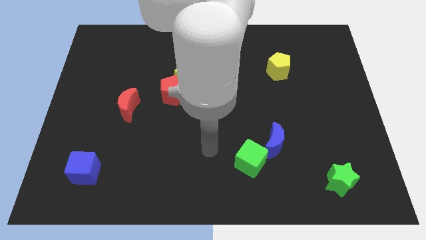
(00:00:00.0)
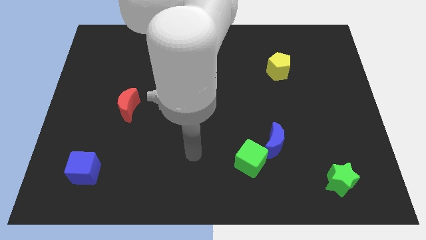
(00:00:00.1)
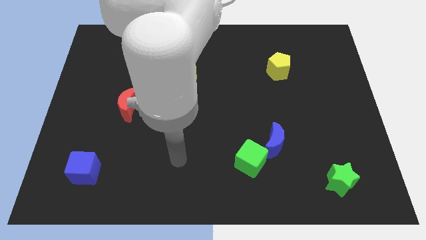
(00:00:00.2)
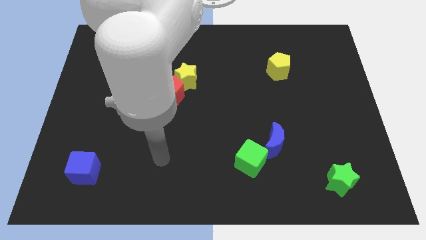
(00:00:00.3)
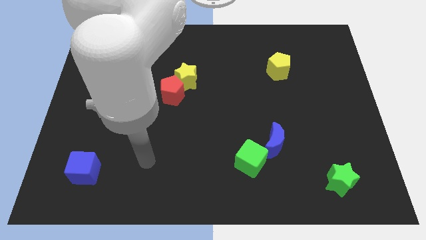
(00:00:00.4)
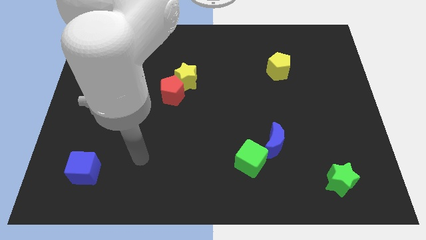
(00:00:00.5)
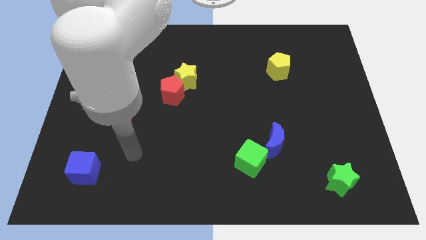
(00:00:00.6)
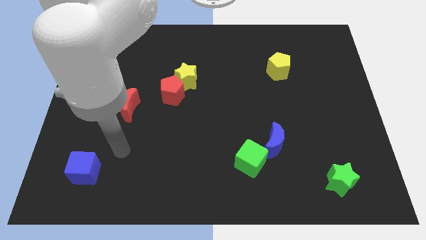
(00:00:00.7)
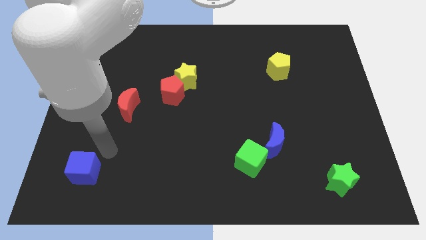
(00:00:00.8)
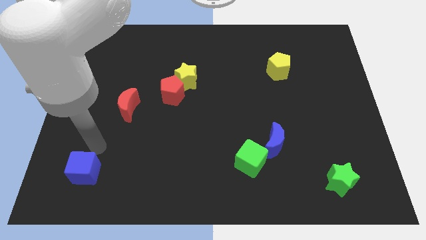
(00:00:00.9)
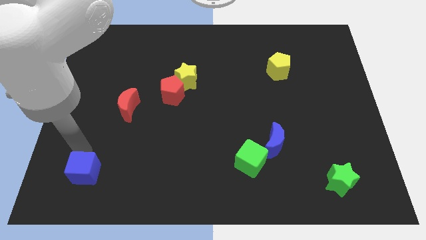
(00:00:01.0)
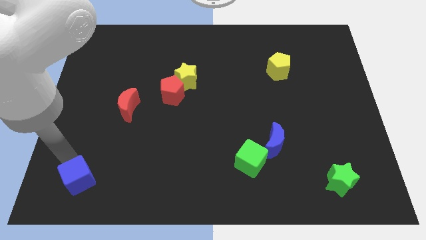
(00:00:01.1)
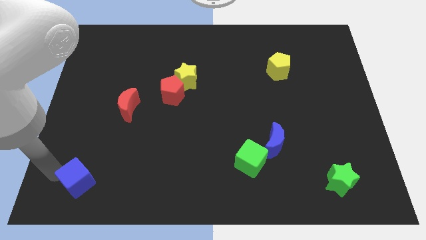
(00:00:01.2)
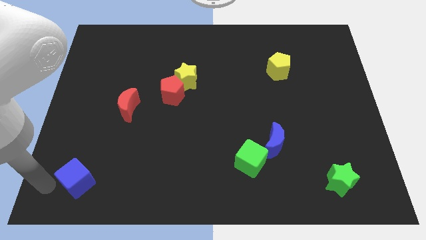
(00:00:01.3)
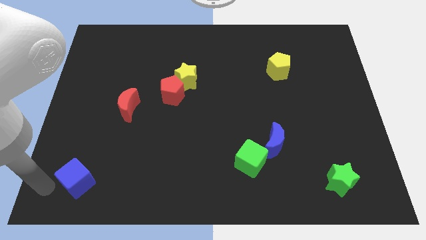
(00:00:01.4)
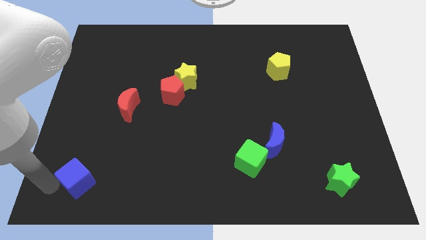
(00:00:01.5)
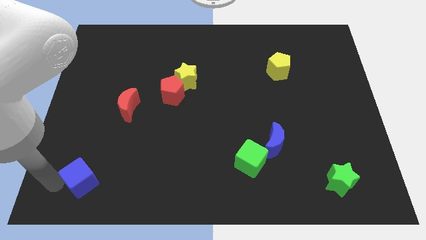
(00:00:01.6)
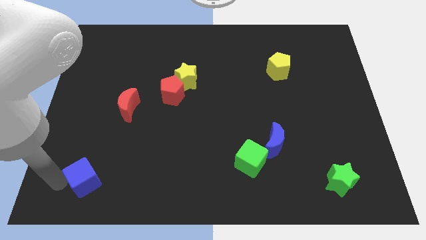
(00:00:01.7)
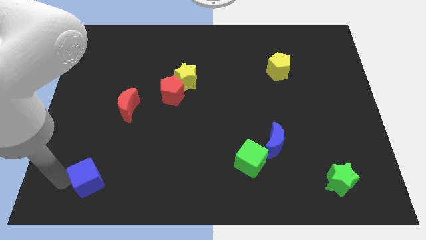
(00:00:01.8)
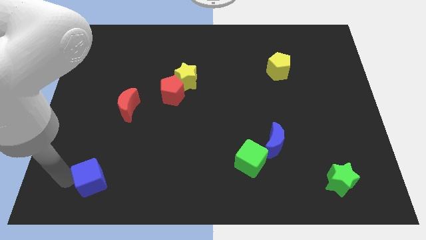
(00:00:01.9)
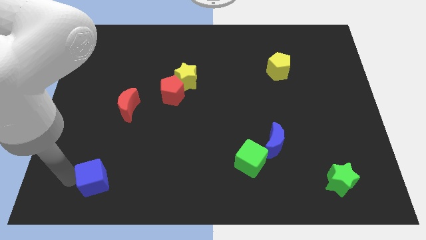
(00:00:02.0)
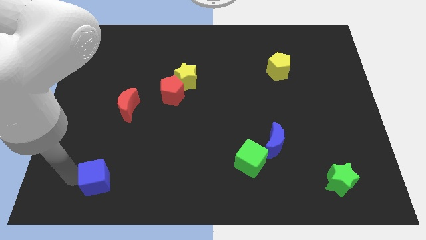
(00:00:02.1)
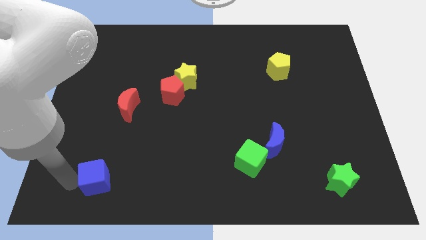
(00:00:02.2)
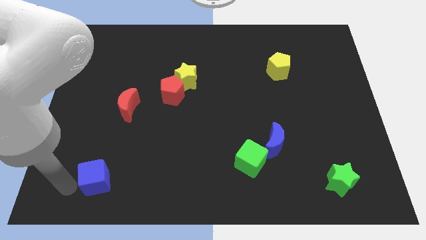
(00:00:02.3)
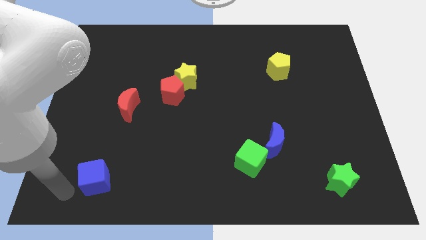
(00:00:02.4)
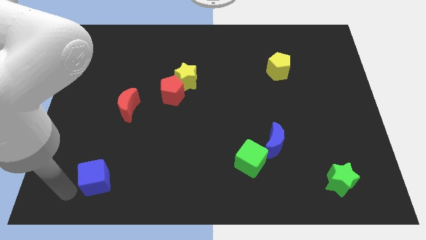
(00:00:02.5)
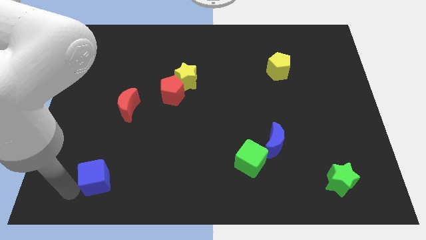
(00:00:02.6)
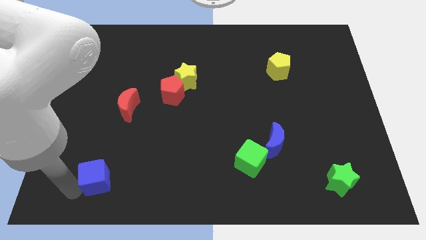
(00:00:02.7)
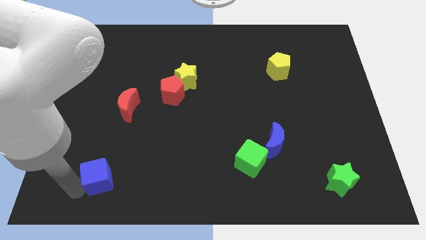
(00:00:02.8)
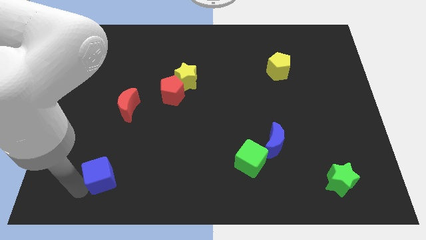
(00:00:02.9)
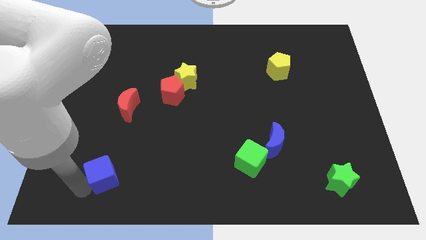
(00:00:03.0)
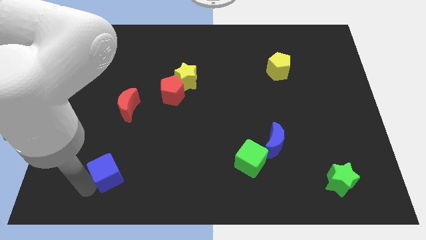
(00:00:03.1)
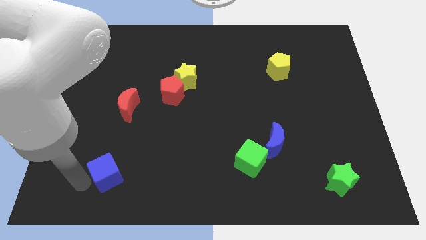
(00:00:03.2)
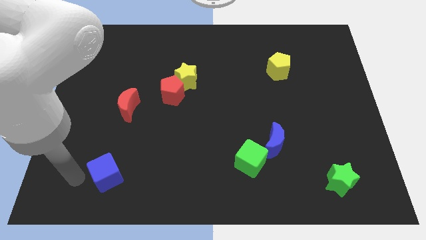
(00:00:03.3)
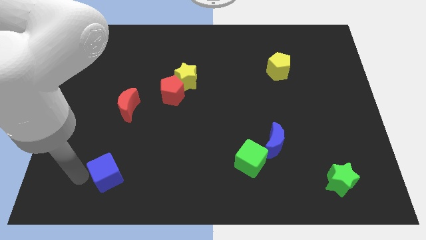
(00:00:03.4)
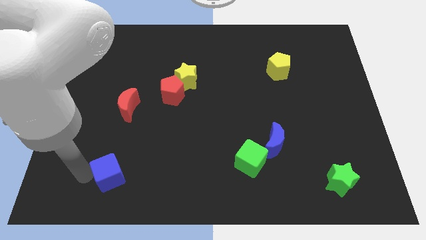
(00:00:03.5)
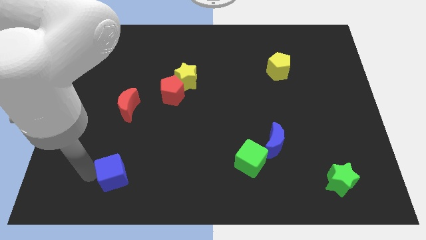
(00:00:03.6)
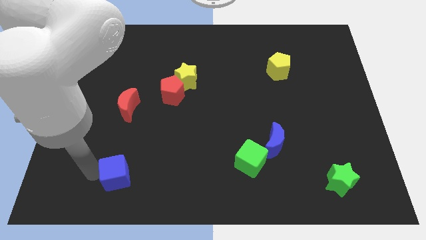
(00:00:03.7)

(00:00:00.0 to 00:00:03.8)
slide the blue cube slightly right

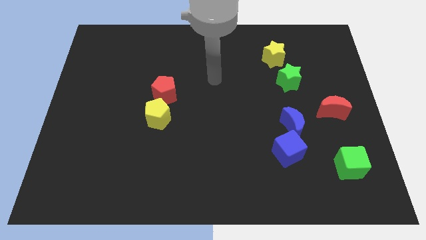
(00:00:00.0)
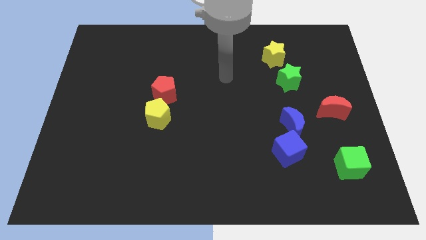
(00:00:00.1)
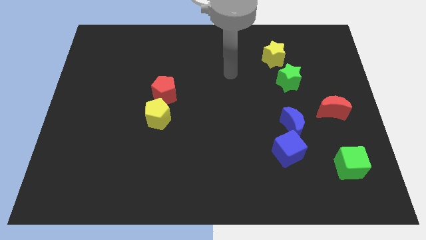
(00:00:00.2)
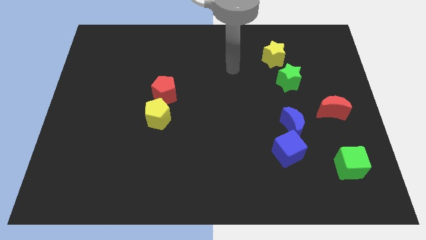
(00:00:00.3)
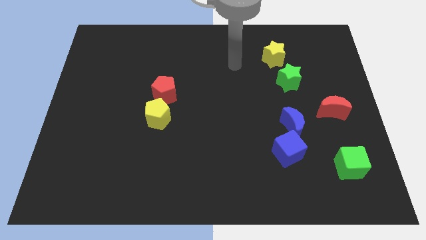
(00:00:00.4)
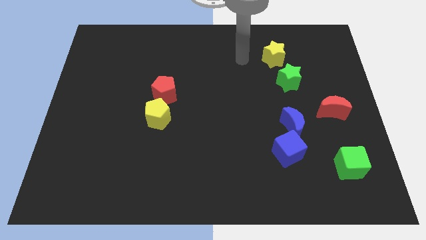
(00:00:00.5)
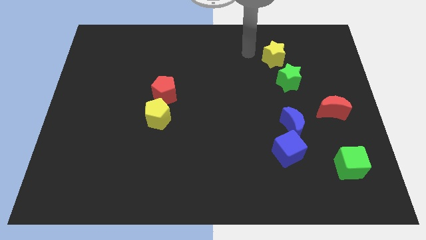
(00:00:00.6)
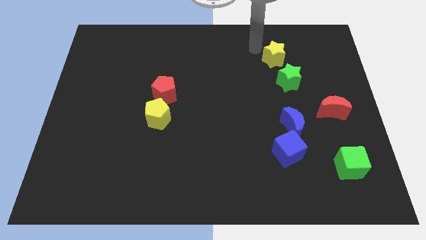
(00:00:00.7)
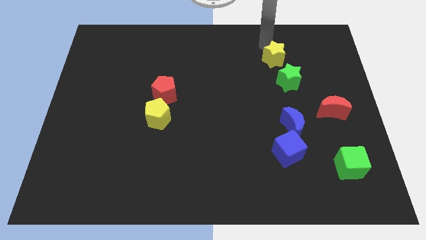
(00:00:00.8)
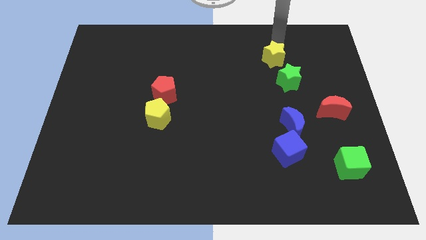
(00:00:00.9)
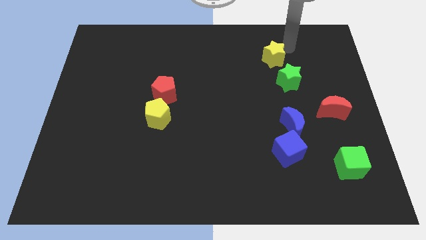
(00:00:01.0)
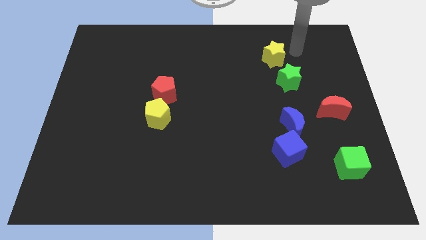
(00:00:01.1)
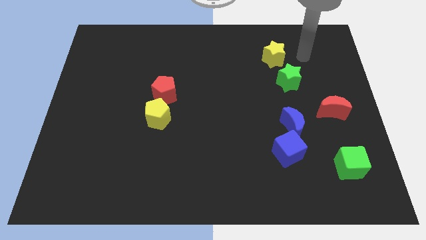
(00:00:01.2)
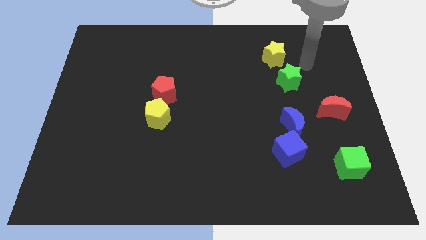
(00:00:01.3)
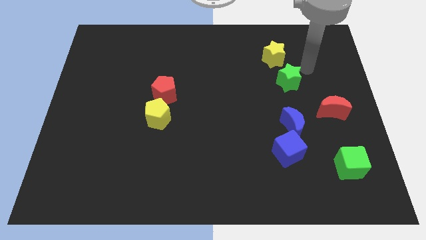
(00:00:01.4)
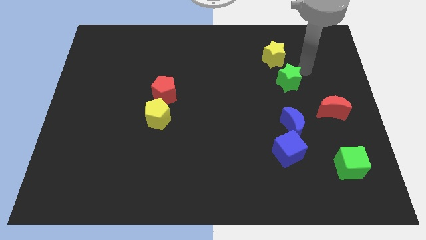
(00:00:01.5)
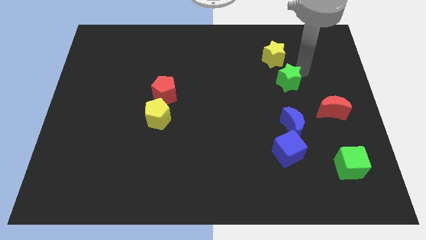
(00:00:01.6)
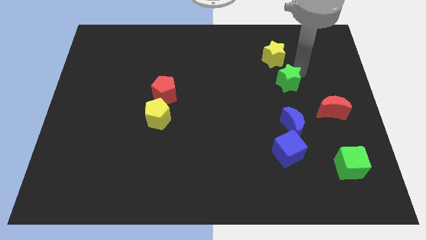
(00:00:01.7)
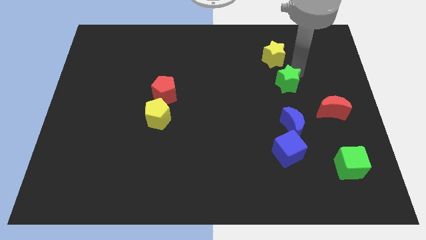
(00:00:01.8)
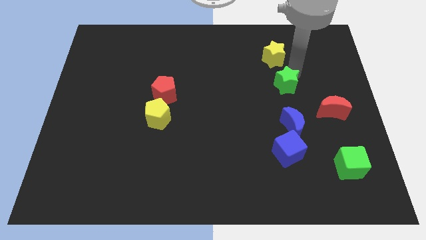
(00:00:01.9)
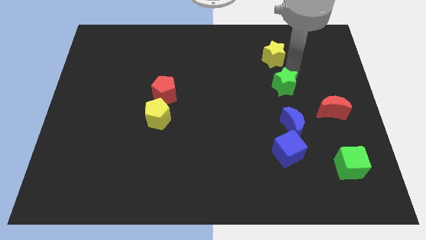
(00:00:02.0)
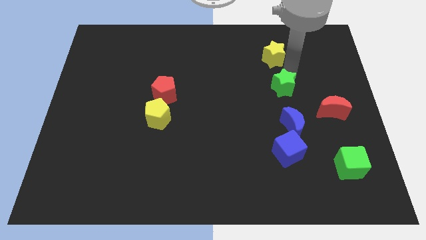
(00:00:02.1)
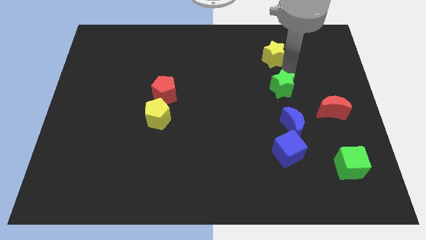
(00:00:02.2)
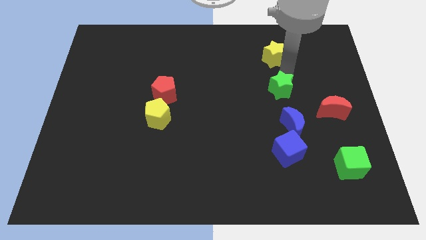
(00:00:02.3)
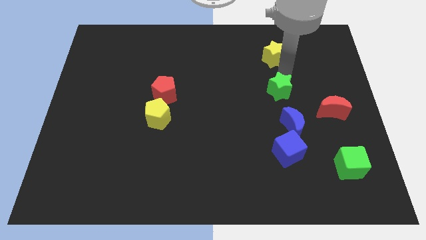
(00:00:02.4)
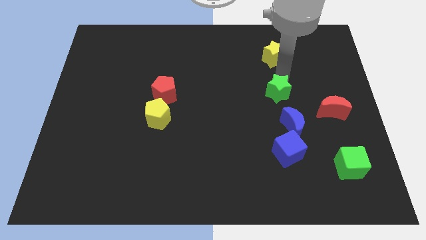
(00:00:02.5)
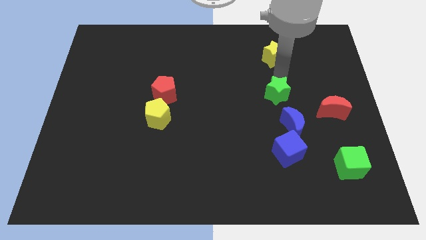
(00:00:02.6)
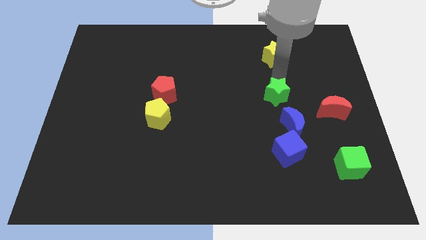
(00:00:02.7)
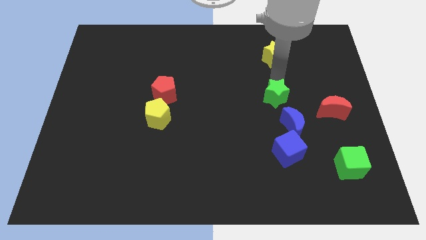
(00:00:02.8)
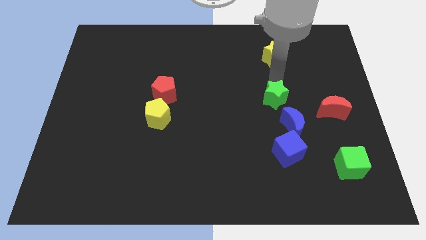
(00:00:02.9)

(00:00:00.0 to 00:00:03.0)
slightly slide the green star down and left

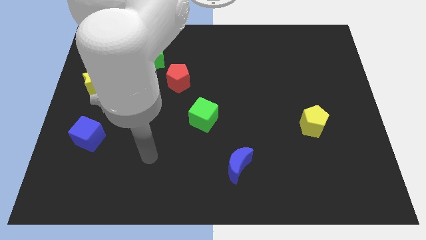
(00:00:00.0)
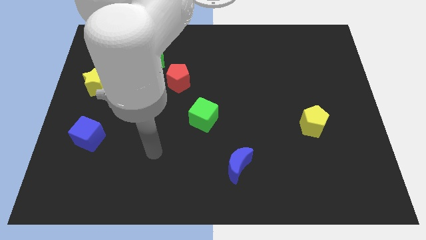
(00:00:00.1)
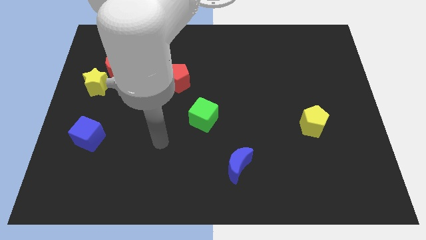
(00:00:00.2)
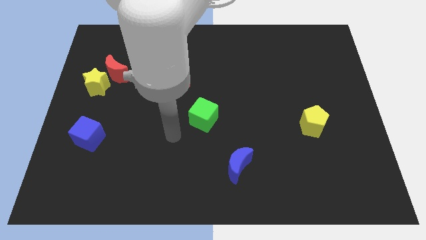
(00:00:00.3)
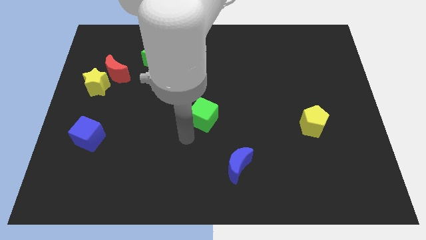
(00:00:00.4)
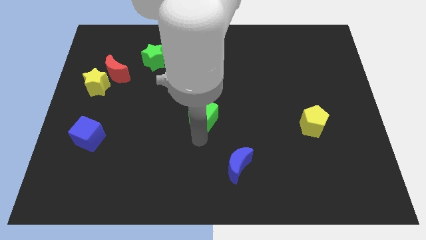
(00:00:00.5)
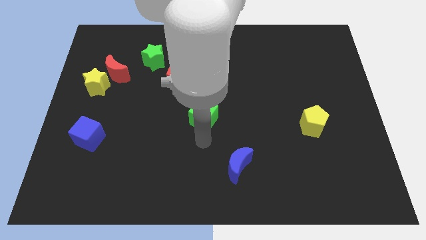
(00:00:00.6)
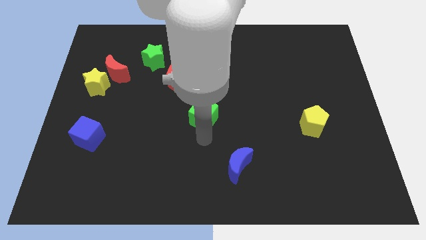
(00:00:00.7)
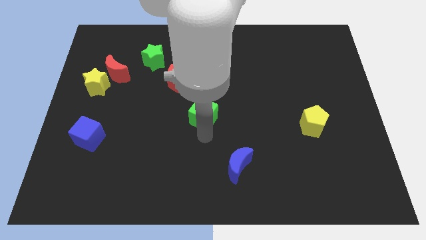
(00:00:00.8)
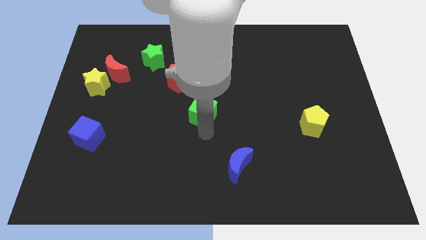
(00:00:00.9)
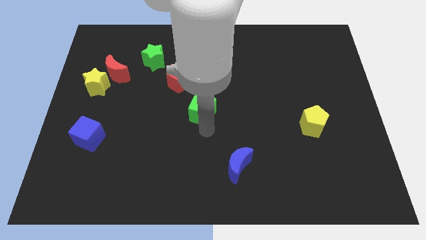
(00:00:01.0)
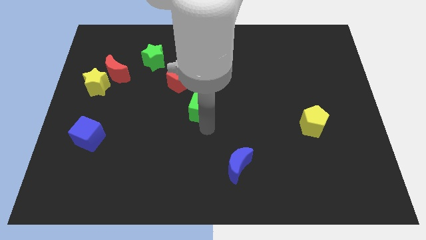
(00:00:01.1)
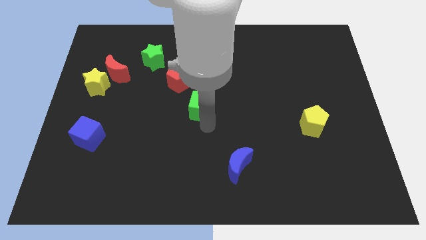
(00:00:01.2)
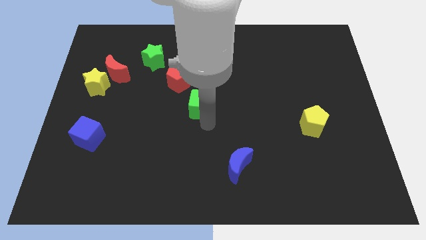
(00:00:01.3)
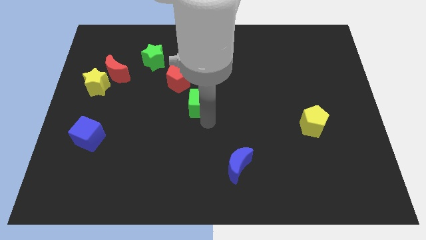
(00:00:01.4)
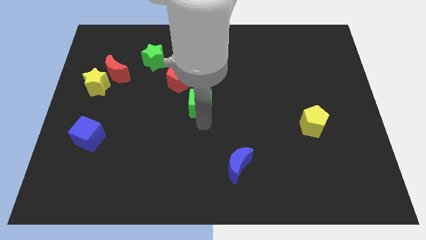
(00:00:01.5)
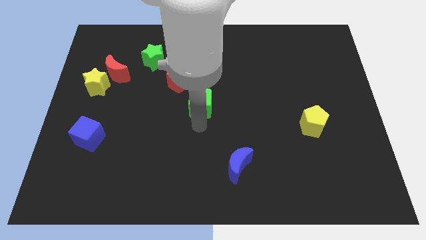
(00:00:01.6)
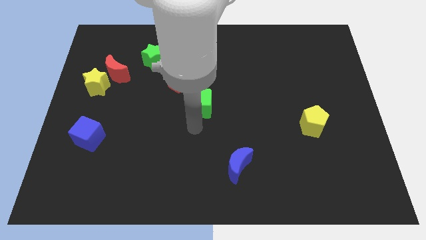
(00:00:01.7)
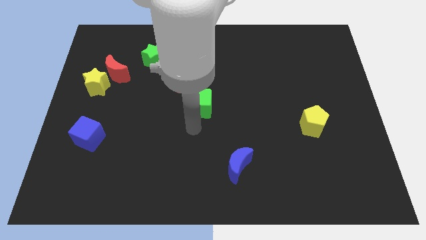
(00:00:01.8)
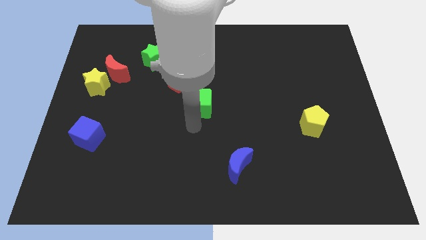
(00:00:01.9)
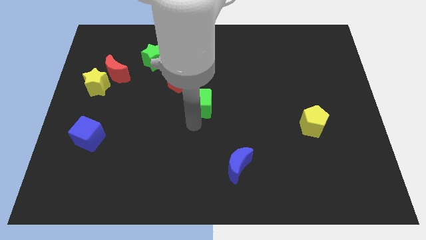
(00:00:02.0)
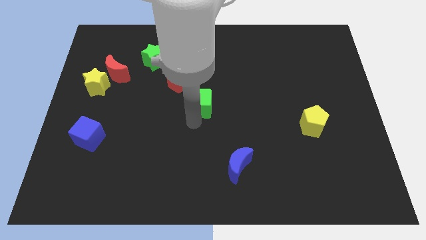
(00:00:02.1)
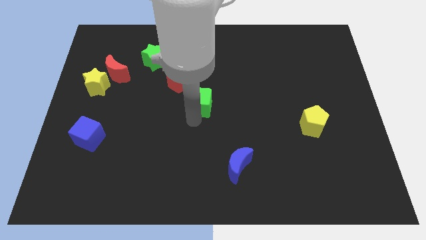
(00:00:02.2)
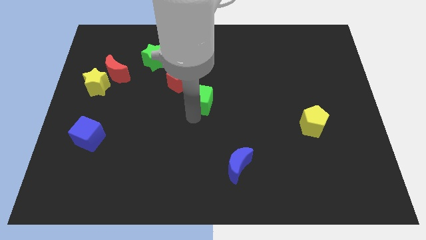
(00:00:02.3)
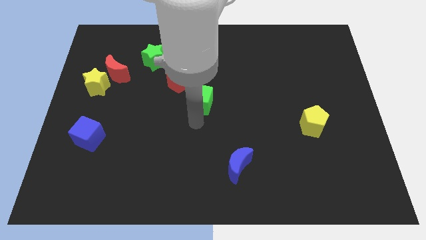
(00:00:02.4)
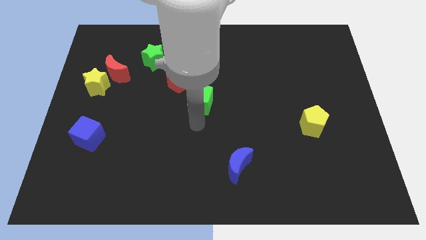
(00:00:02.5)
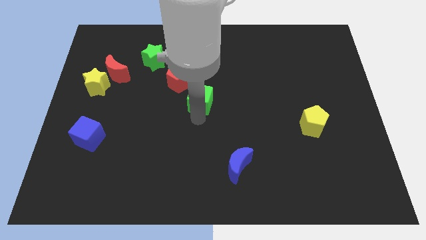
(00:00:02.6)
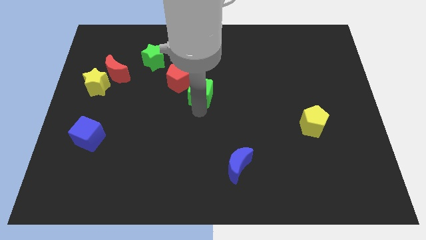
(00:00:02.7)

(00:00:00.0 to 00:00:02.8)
slide the green cube a little bit upwards
